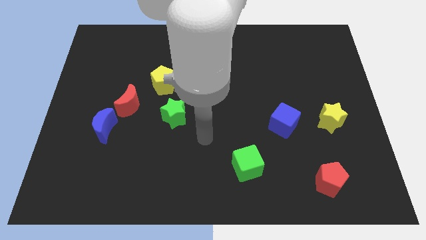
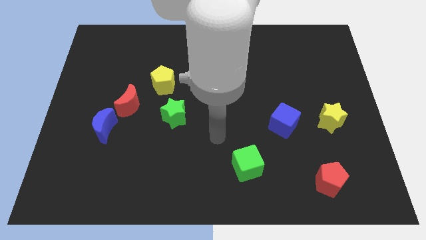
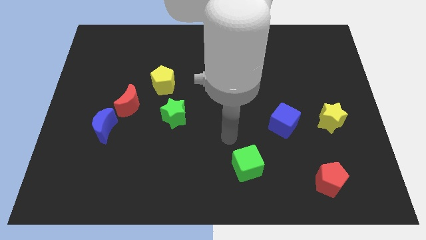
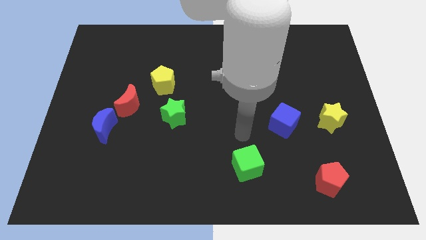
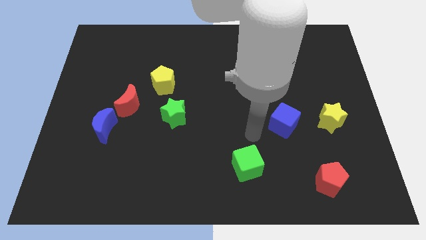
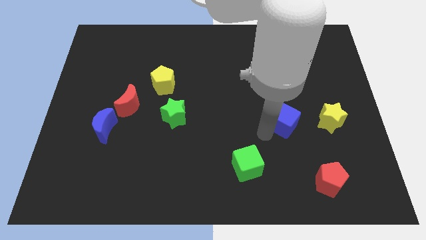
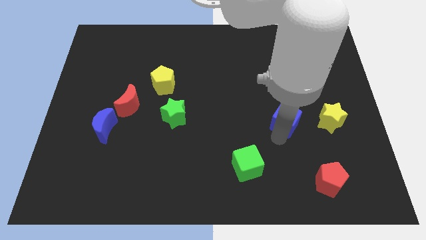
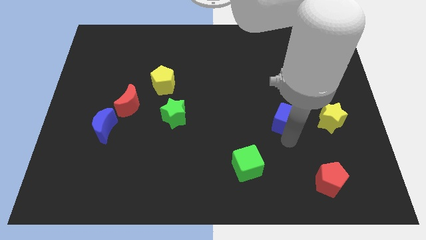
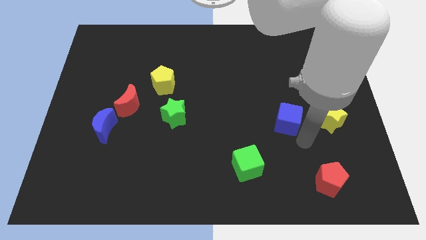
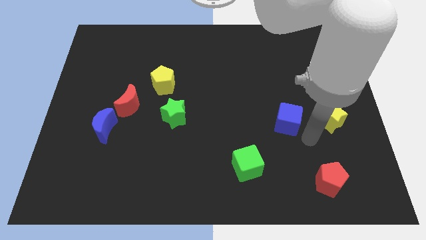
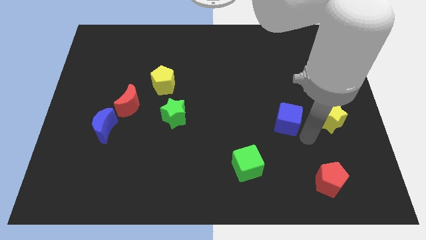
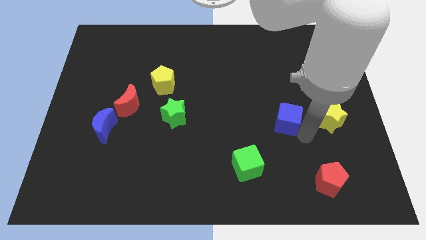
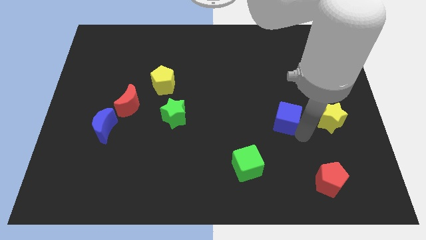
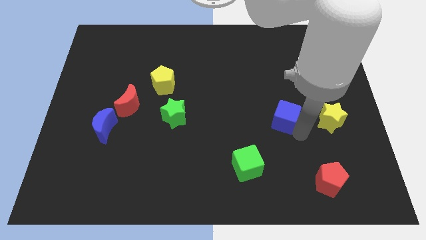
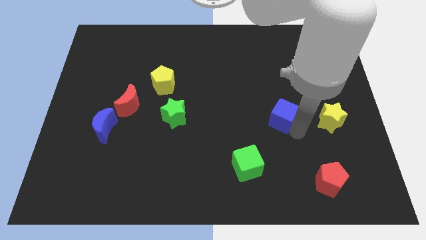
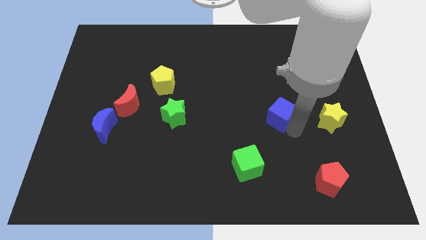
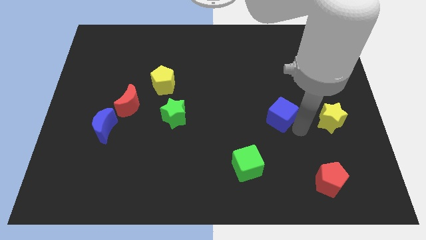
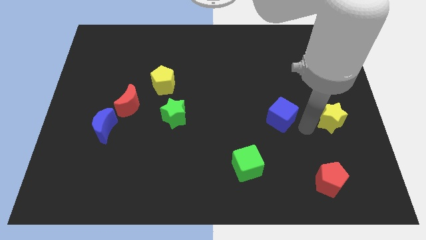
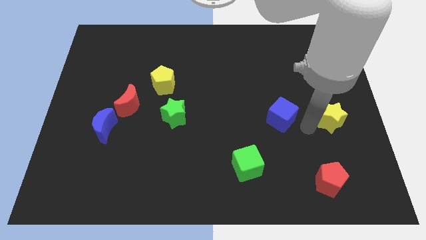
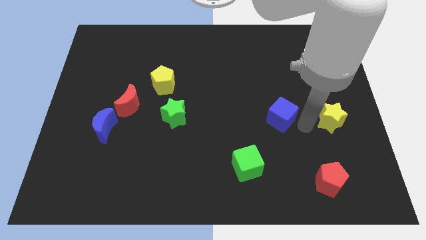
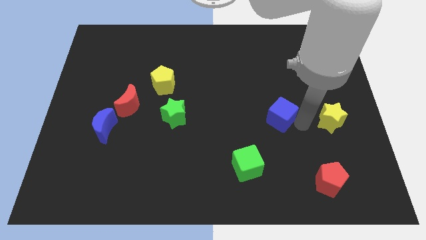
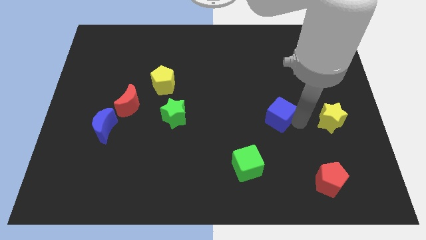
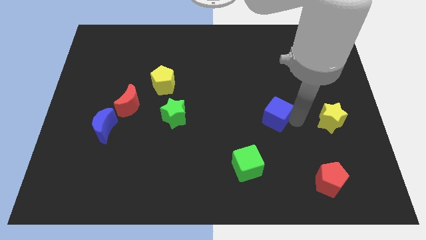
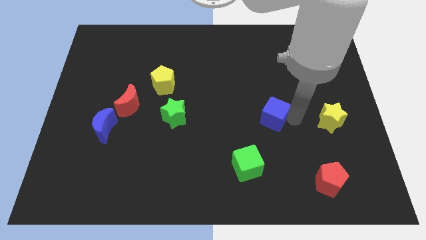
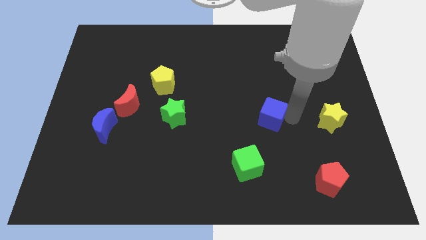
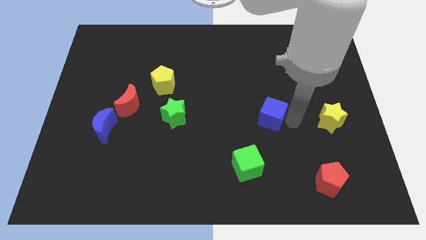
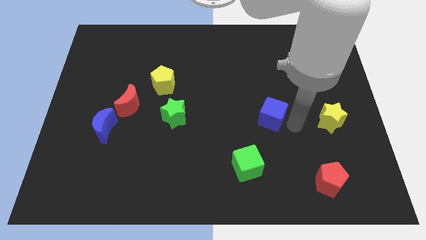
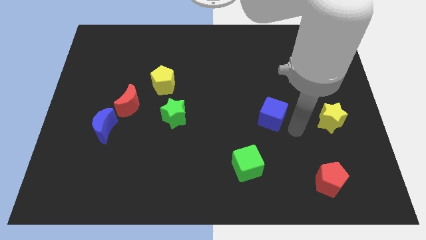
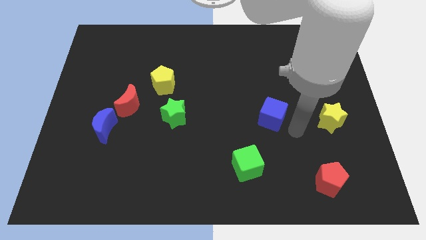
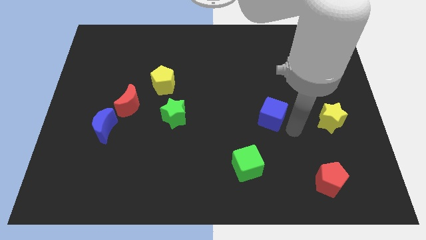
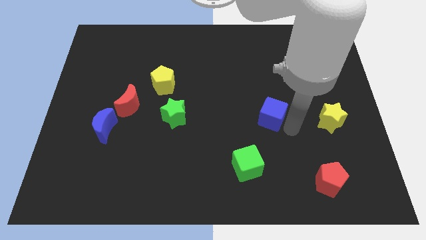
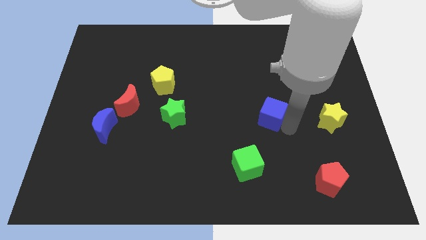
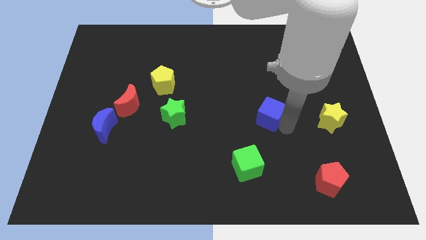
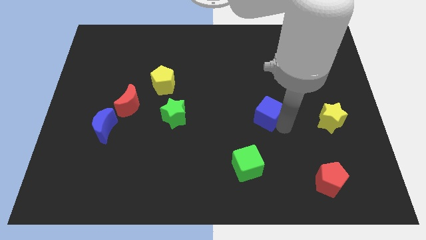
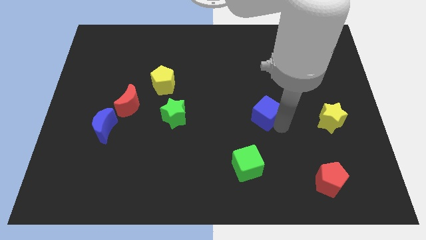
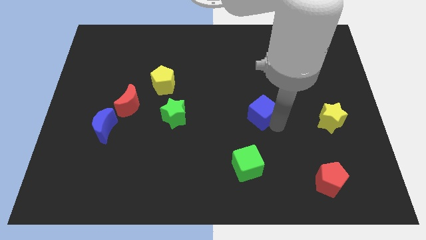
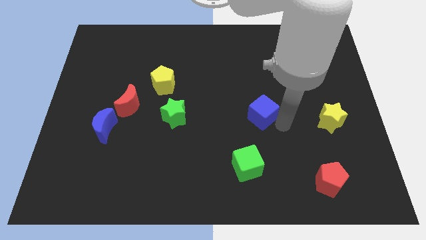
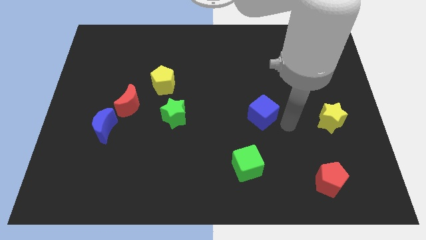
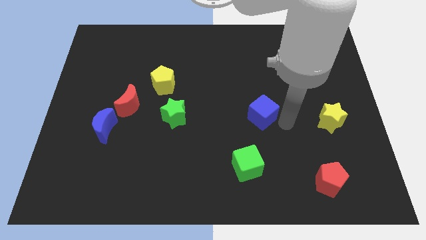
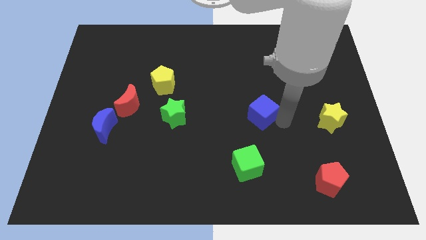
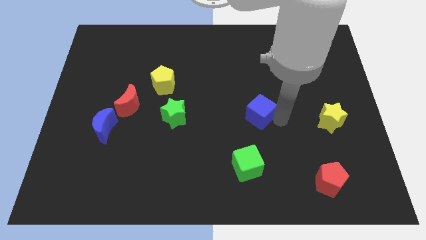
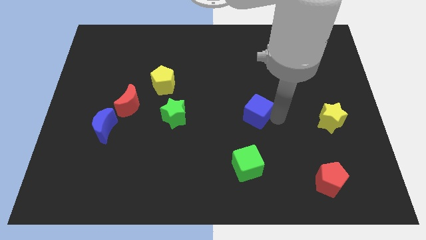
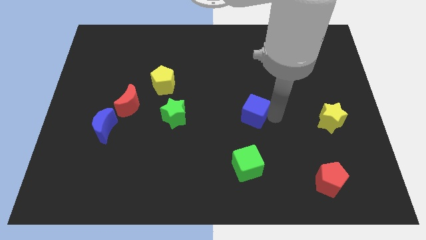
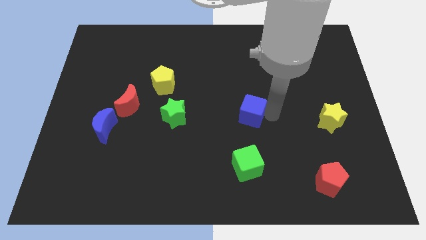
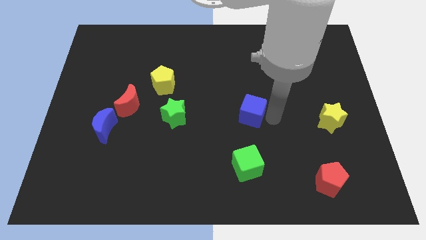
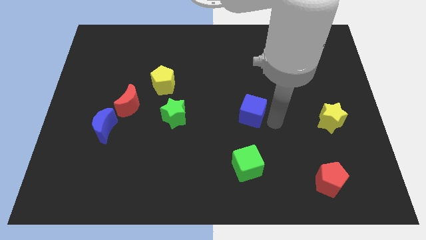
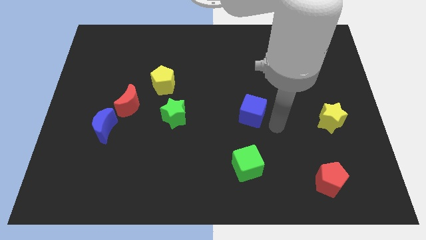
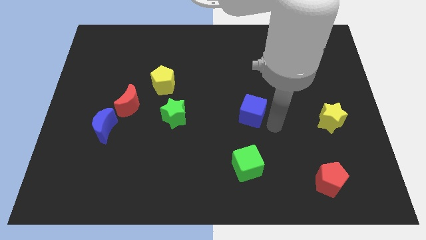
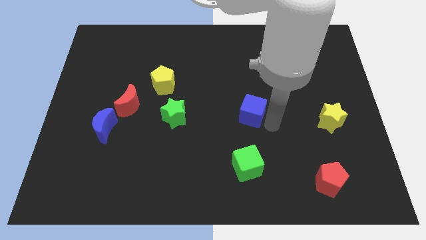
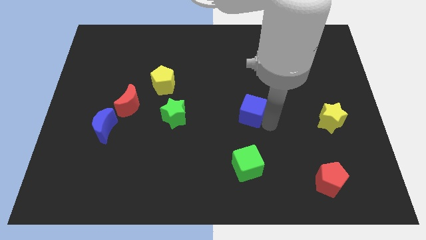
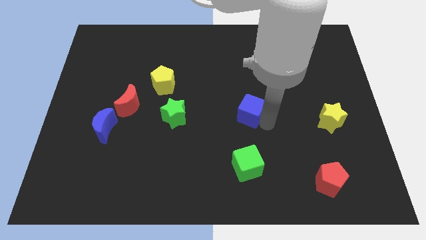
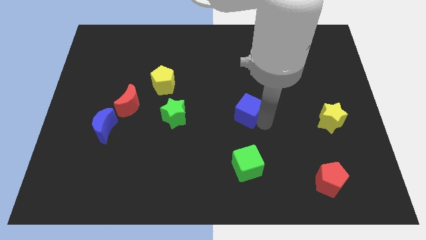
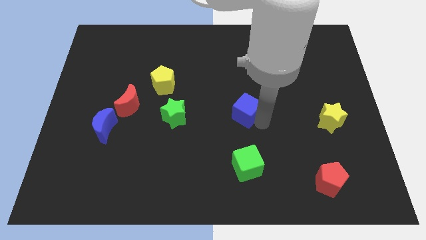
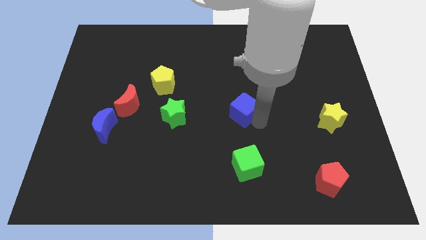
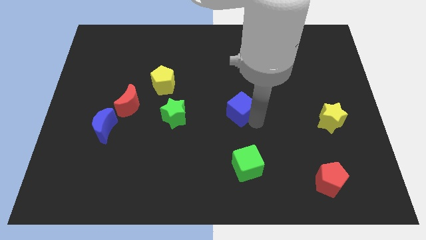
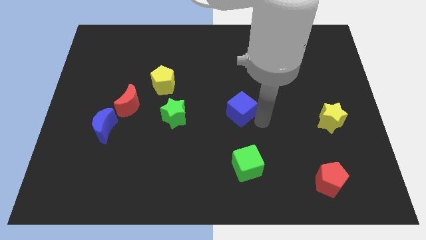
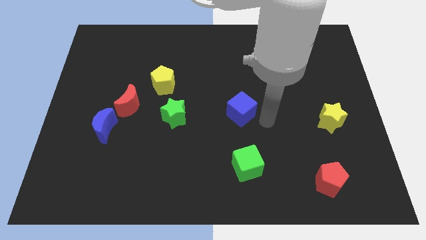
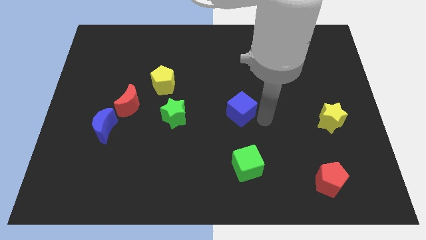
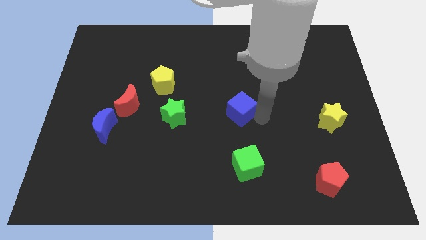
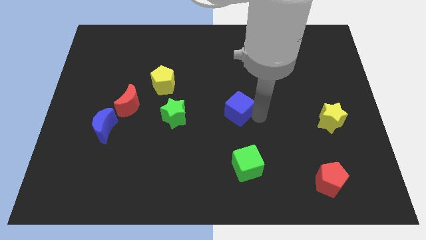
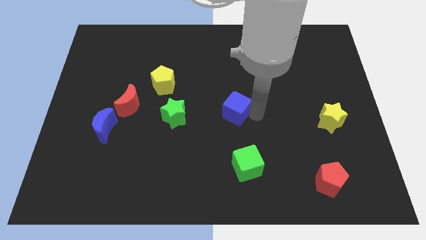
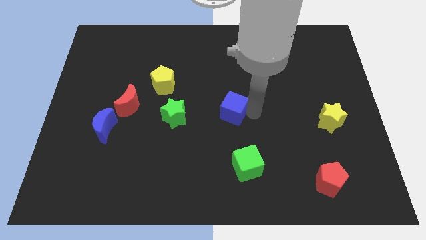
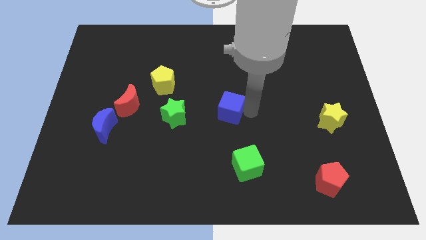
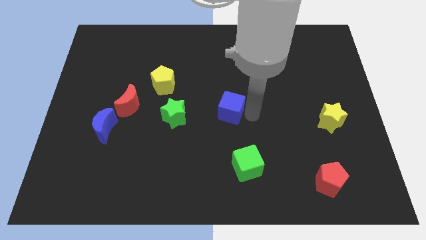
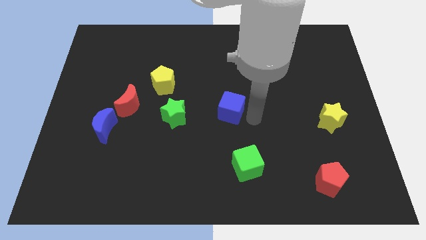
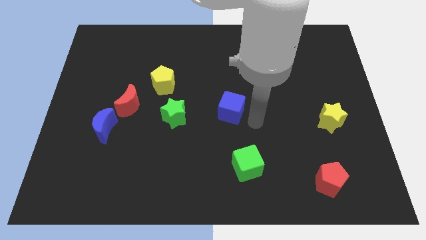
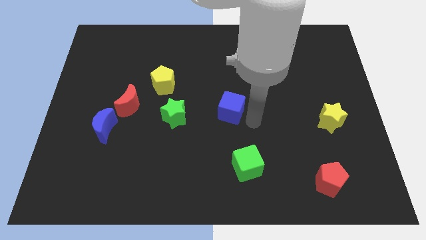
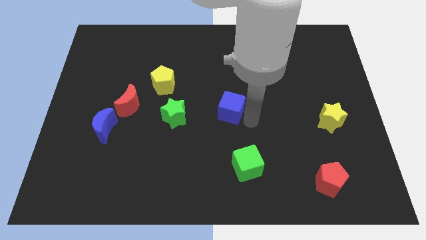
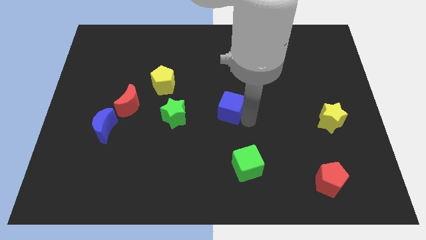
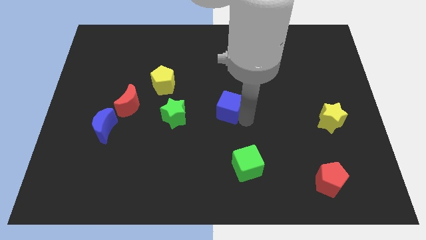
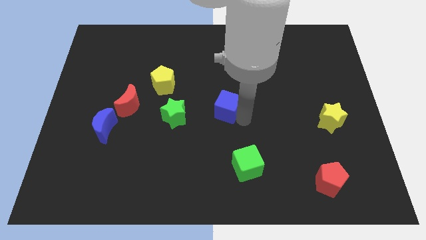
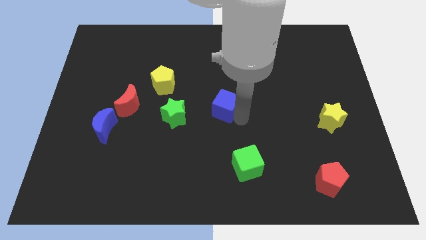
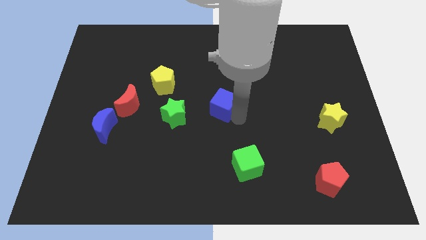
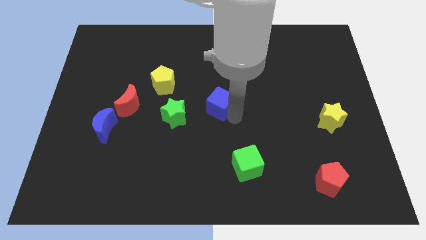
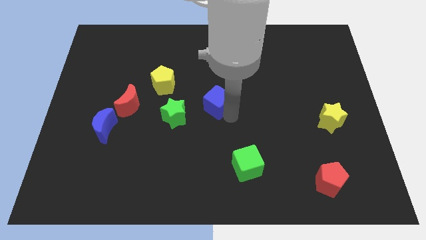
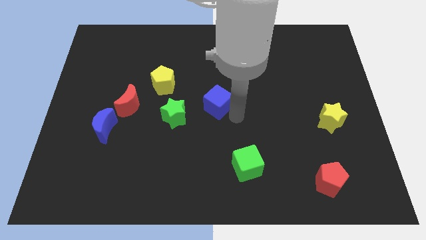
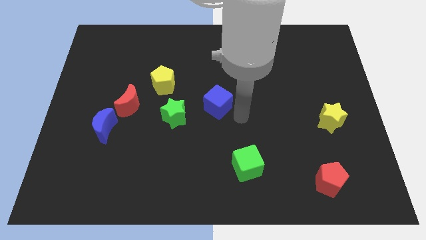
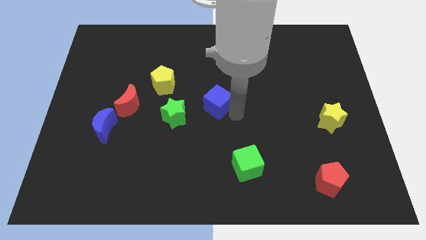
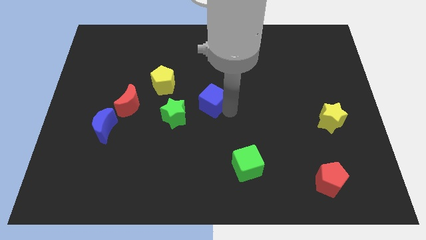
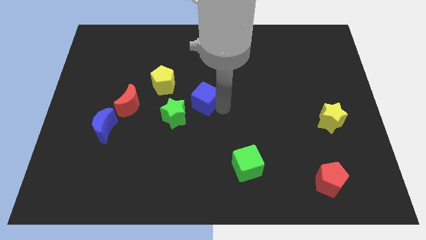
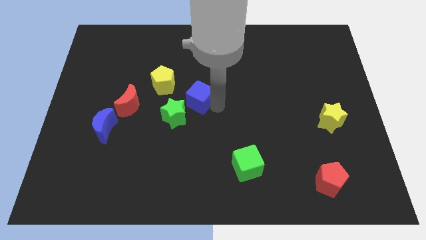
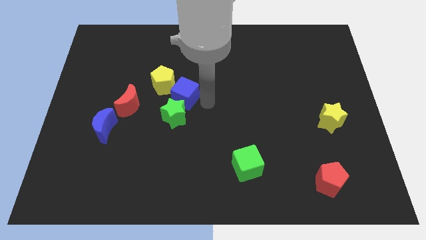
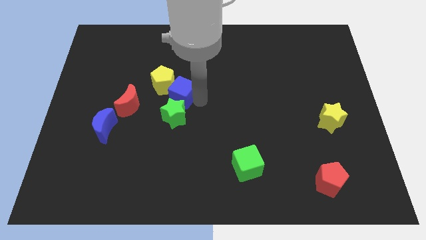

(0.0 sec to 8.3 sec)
move the blue cube next to the yellow pentagon
